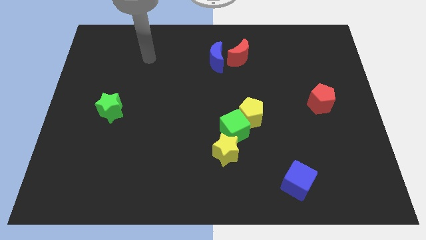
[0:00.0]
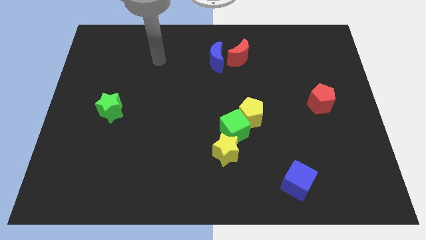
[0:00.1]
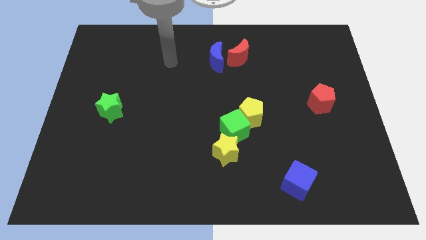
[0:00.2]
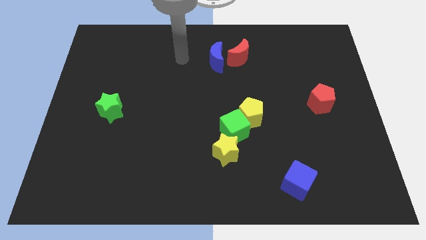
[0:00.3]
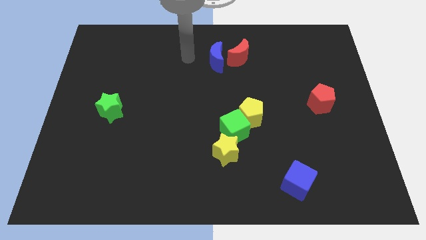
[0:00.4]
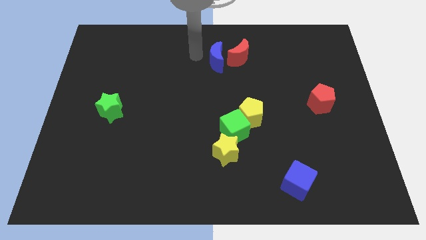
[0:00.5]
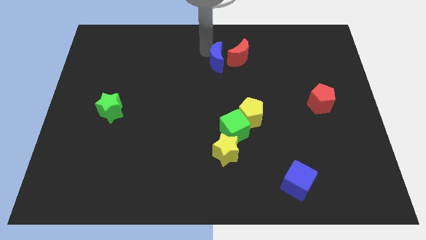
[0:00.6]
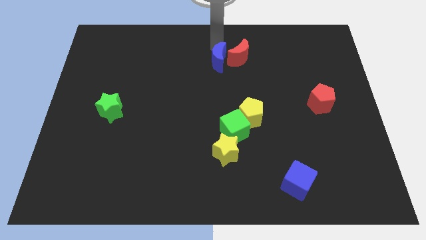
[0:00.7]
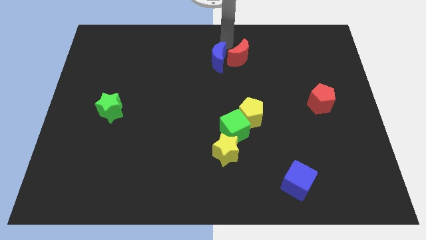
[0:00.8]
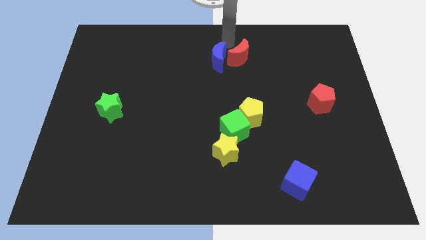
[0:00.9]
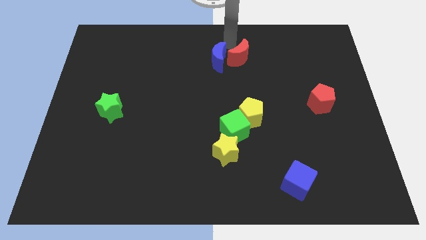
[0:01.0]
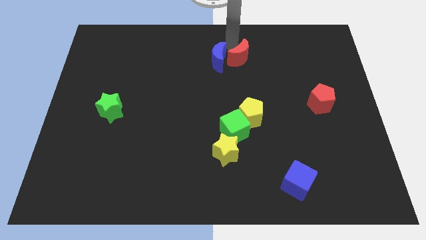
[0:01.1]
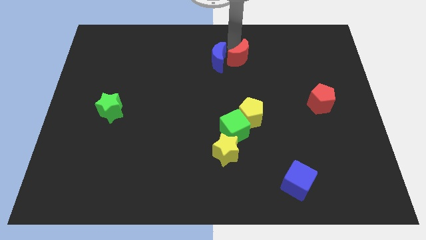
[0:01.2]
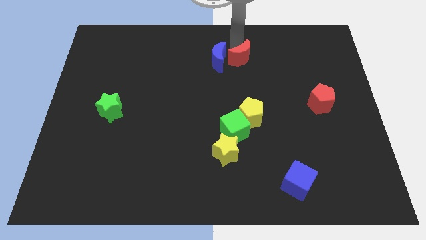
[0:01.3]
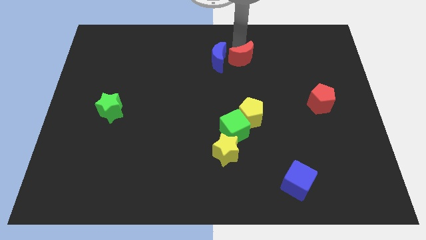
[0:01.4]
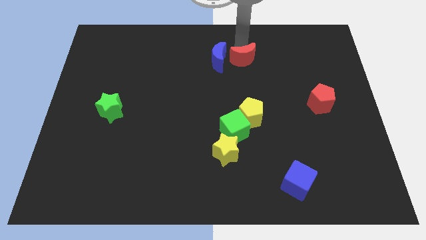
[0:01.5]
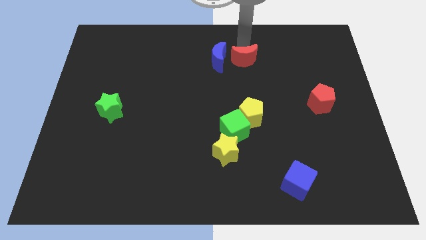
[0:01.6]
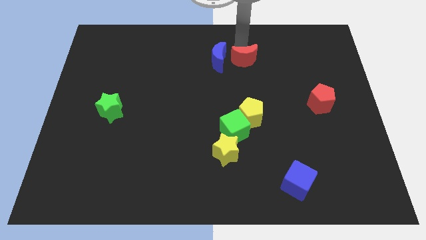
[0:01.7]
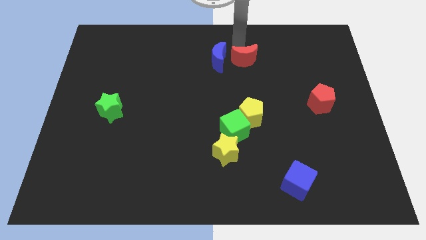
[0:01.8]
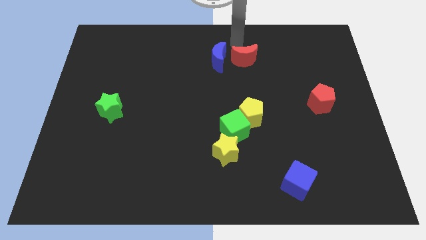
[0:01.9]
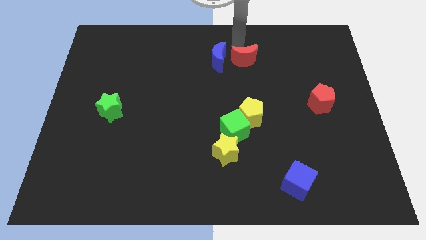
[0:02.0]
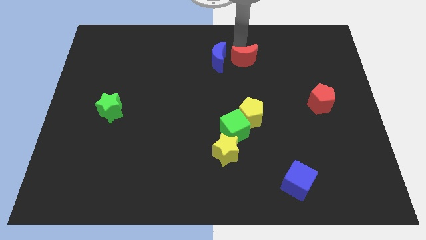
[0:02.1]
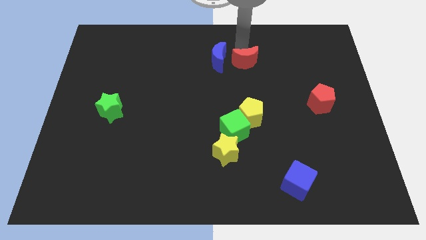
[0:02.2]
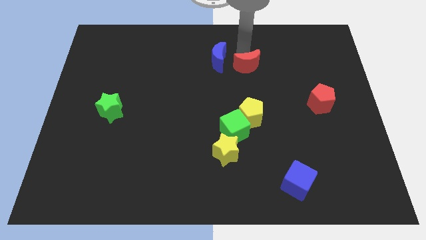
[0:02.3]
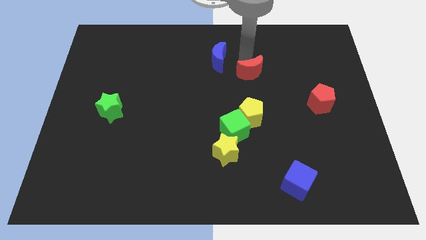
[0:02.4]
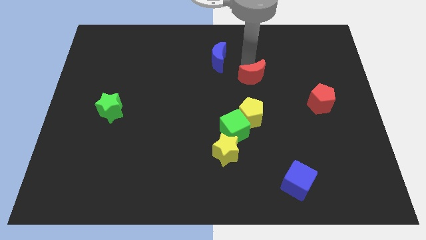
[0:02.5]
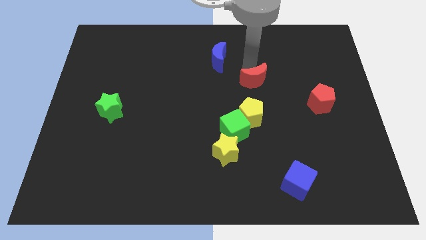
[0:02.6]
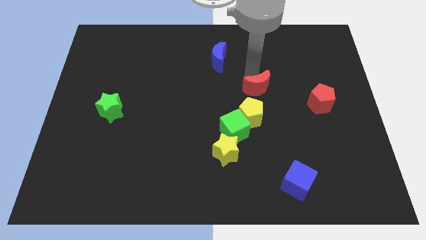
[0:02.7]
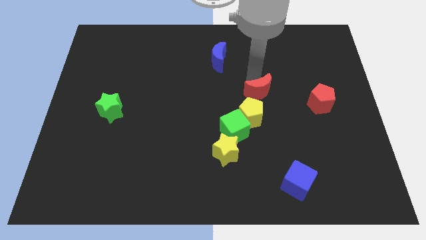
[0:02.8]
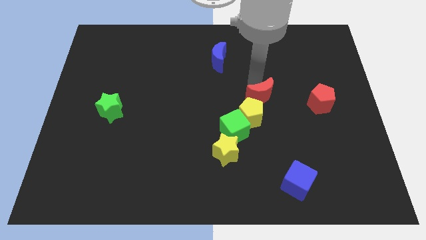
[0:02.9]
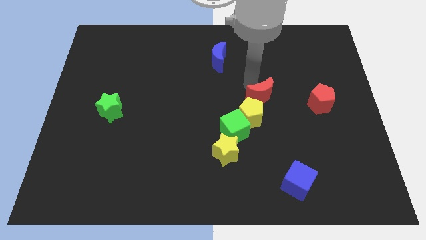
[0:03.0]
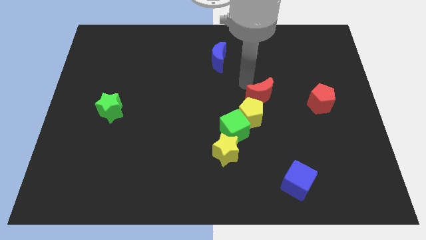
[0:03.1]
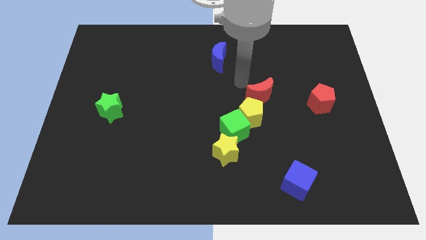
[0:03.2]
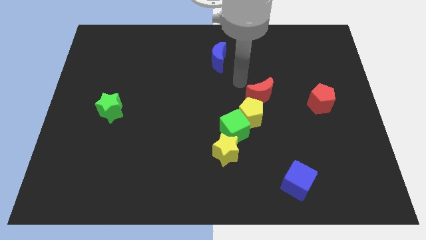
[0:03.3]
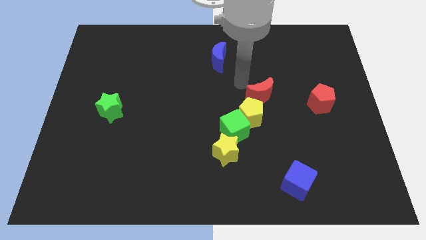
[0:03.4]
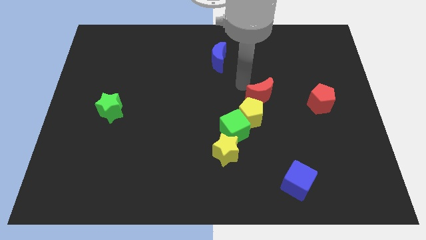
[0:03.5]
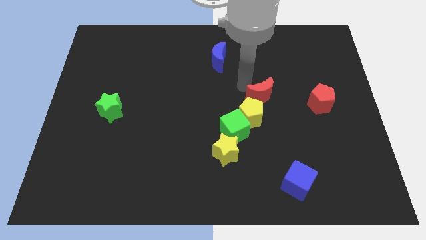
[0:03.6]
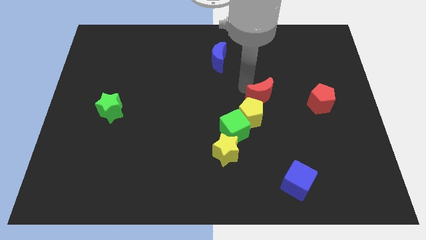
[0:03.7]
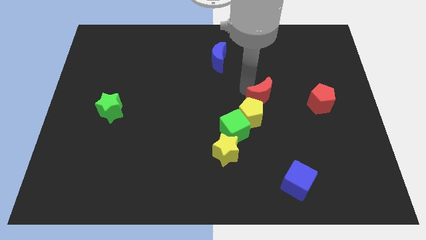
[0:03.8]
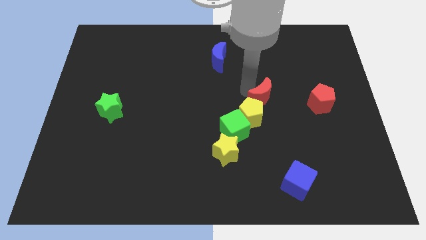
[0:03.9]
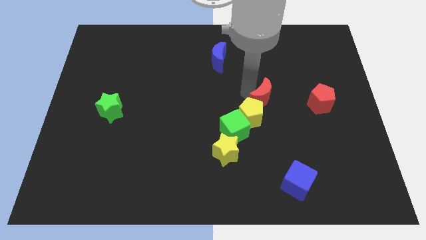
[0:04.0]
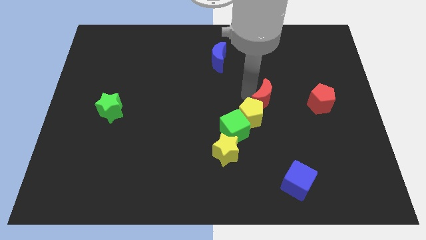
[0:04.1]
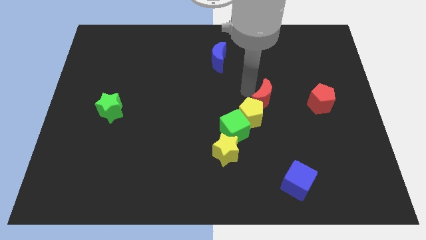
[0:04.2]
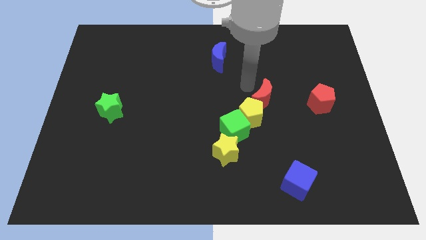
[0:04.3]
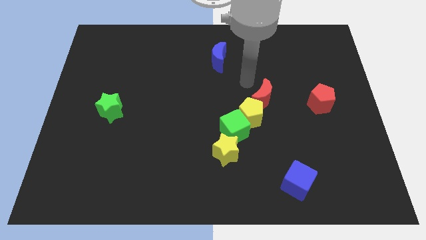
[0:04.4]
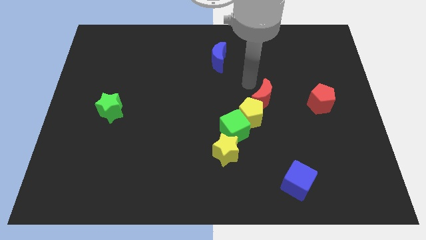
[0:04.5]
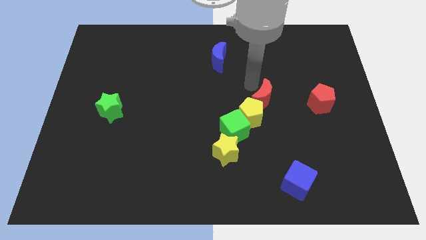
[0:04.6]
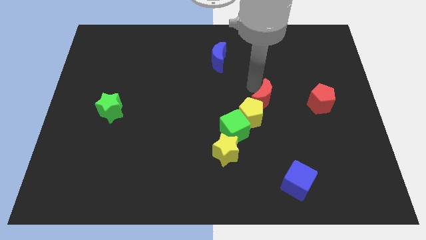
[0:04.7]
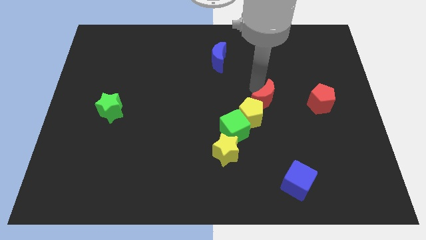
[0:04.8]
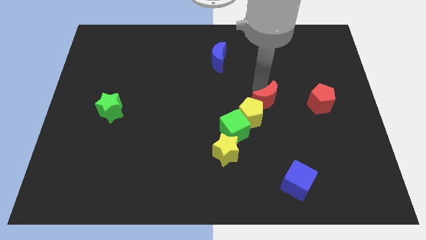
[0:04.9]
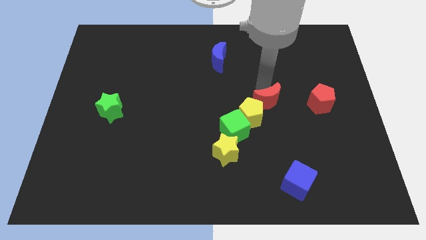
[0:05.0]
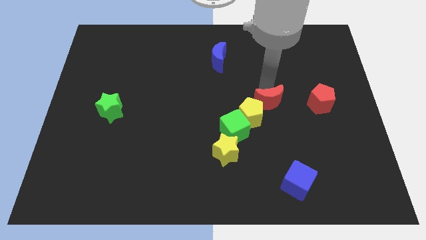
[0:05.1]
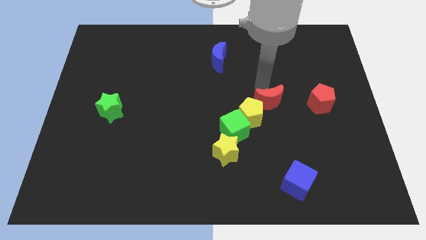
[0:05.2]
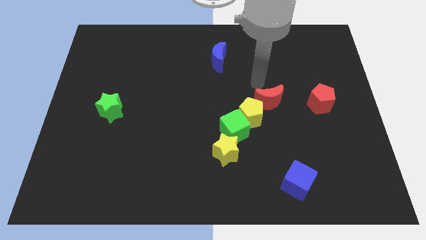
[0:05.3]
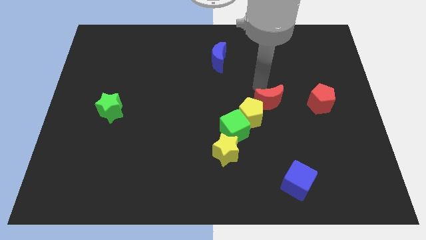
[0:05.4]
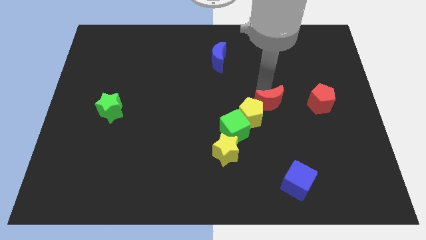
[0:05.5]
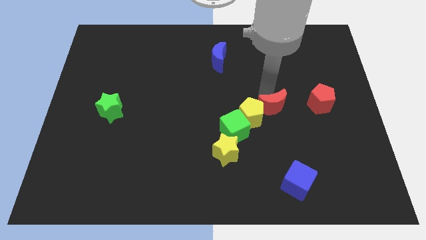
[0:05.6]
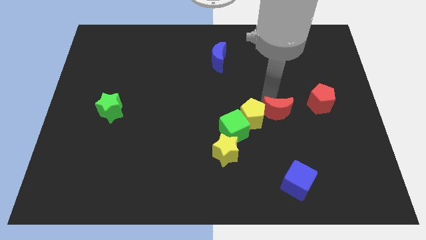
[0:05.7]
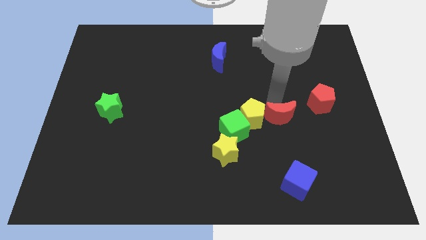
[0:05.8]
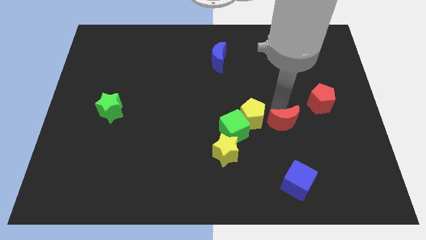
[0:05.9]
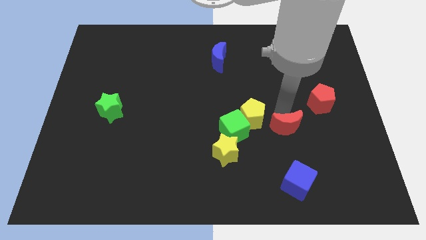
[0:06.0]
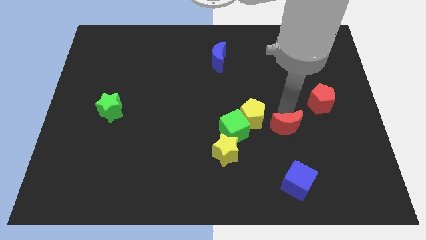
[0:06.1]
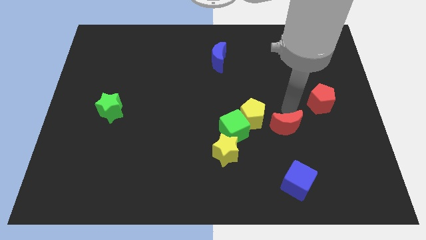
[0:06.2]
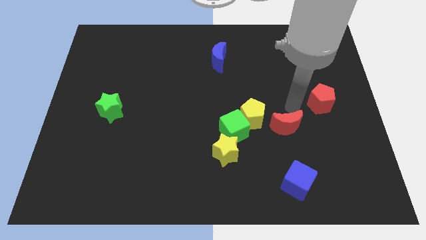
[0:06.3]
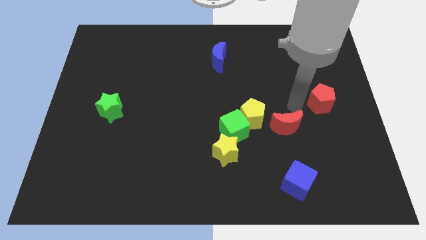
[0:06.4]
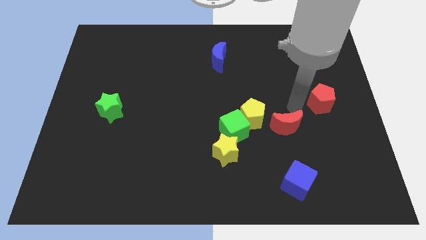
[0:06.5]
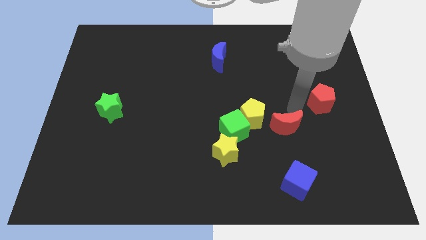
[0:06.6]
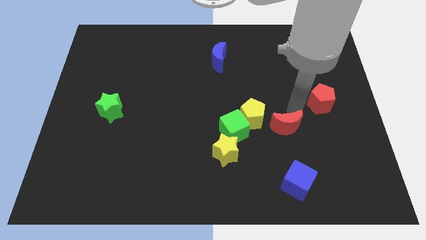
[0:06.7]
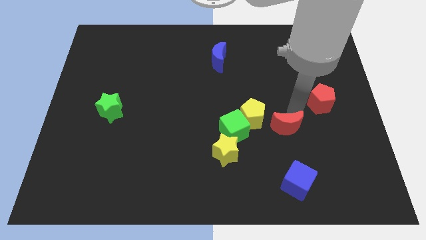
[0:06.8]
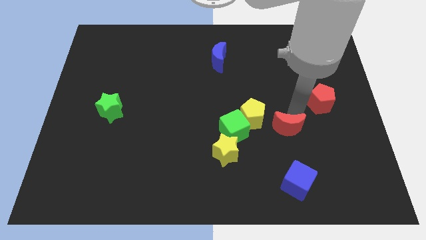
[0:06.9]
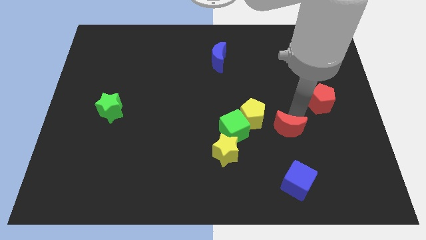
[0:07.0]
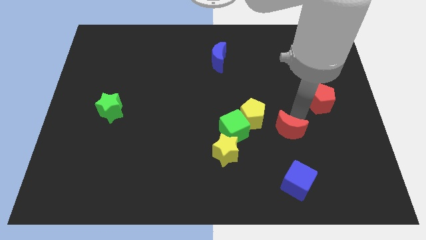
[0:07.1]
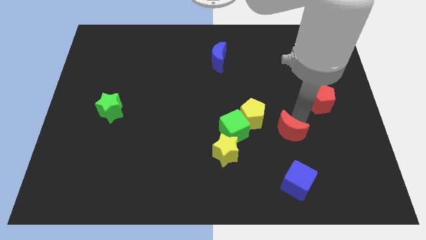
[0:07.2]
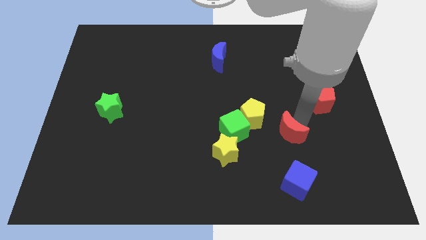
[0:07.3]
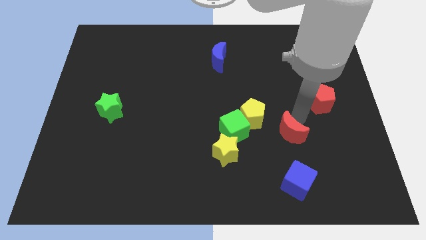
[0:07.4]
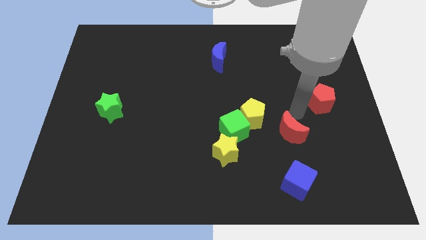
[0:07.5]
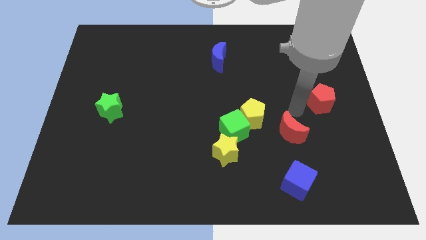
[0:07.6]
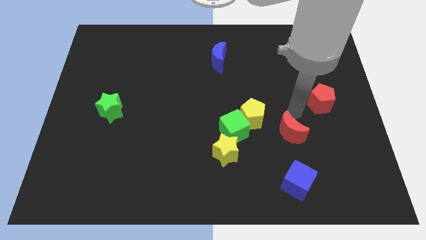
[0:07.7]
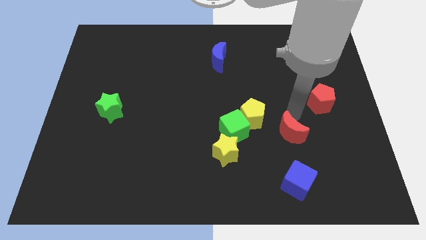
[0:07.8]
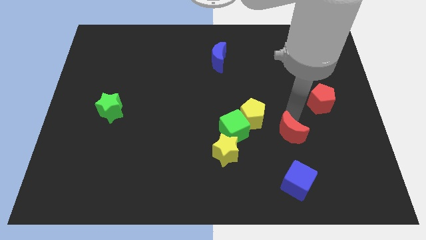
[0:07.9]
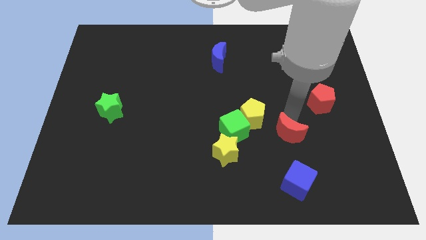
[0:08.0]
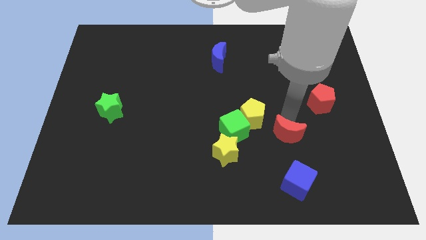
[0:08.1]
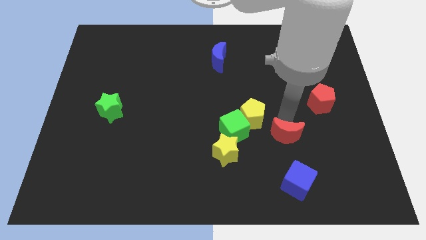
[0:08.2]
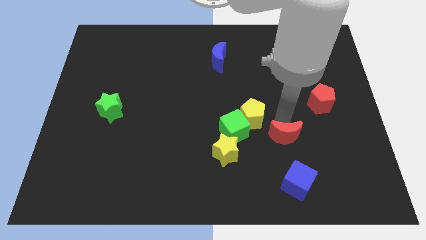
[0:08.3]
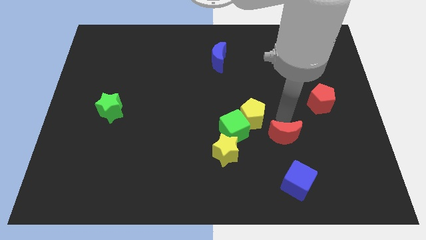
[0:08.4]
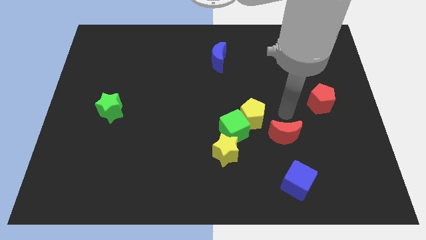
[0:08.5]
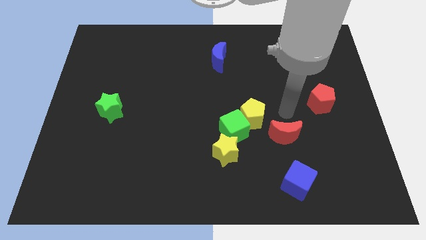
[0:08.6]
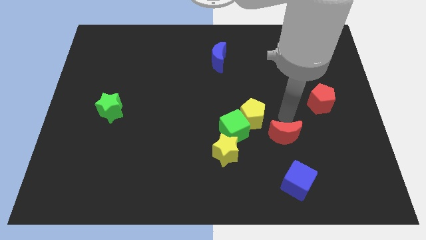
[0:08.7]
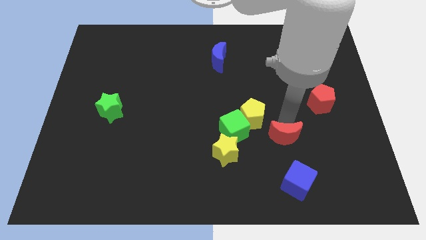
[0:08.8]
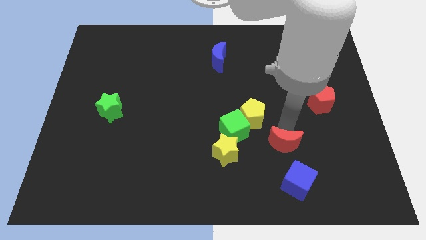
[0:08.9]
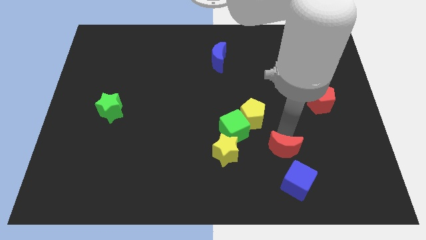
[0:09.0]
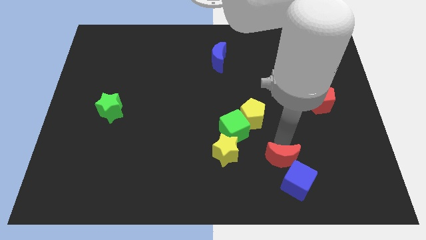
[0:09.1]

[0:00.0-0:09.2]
push the red moon next to the blue cube
